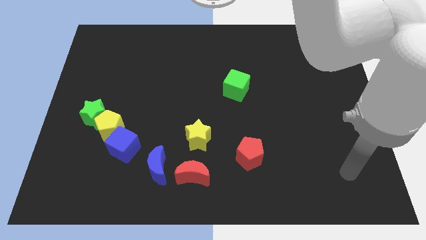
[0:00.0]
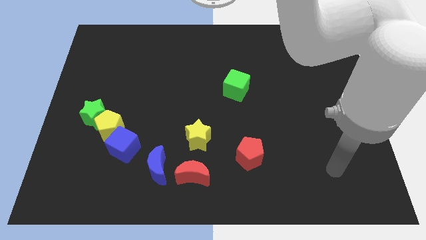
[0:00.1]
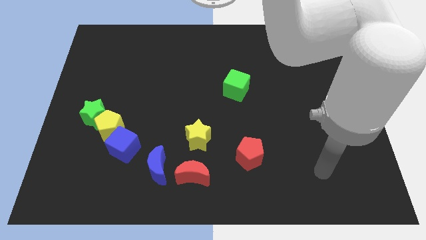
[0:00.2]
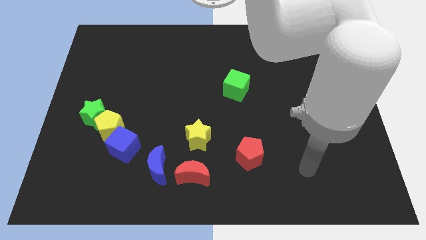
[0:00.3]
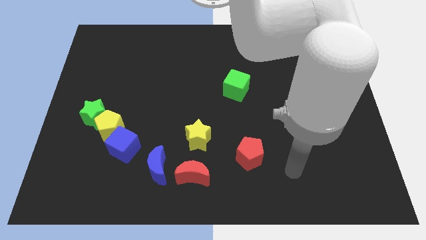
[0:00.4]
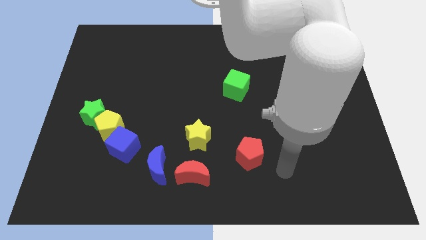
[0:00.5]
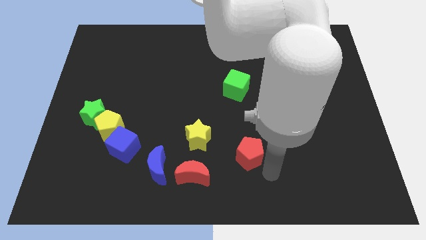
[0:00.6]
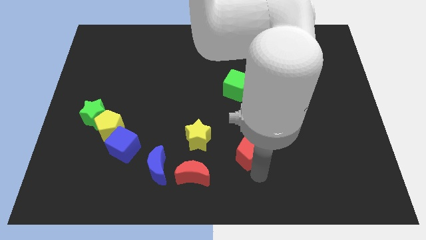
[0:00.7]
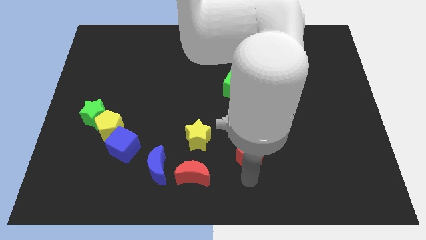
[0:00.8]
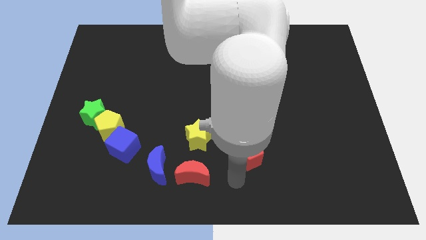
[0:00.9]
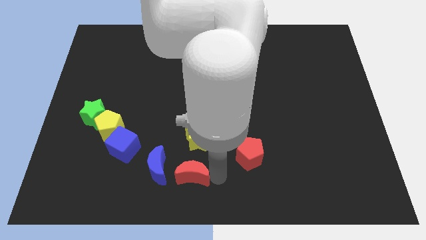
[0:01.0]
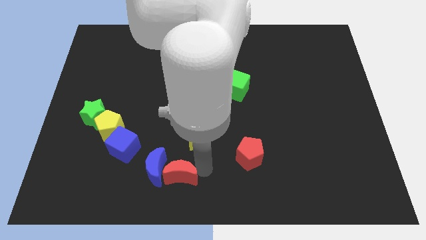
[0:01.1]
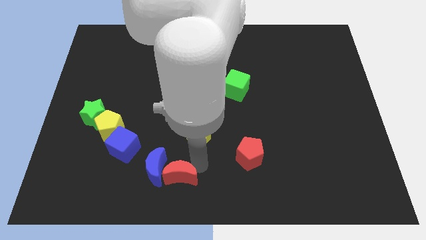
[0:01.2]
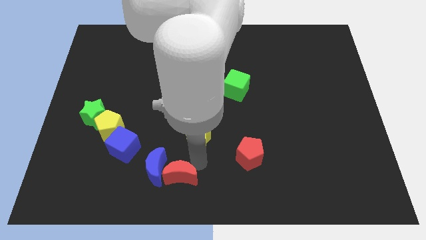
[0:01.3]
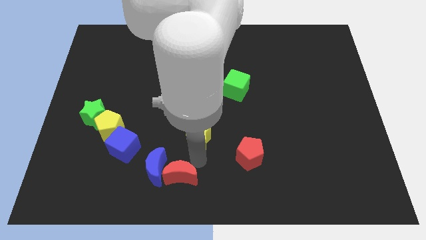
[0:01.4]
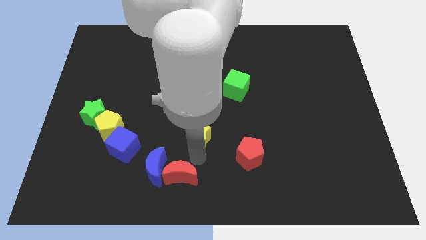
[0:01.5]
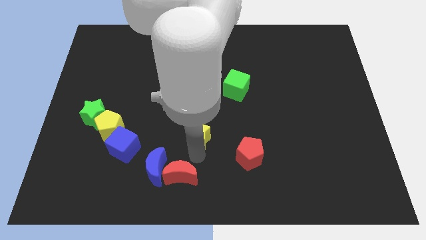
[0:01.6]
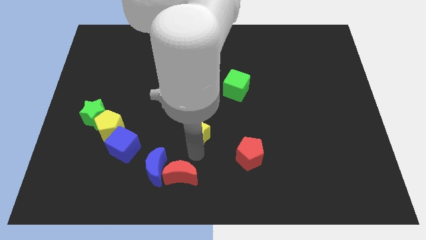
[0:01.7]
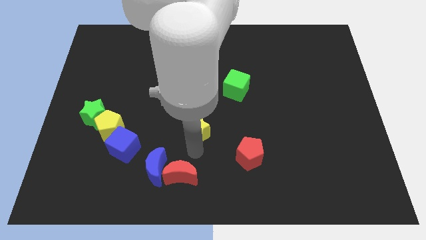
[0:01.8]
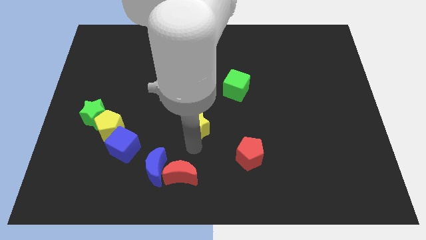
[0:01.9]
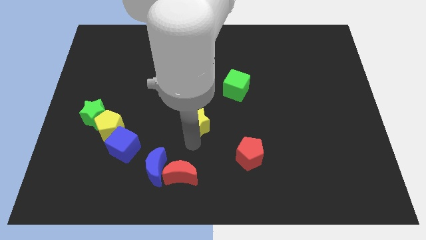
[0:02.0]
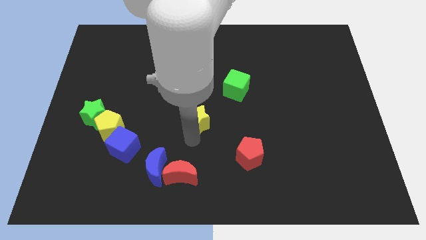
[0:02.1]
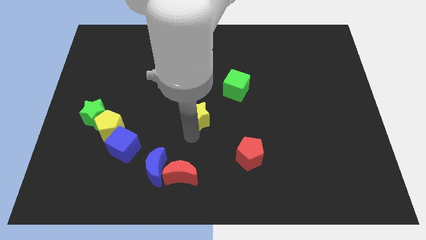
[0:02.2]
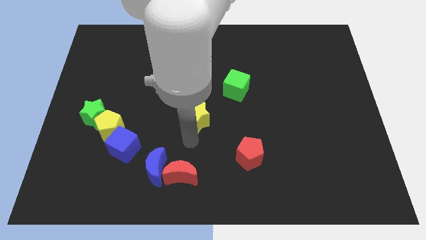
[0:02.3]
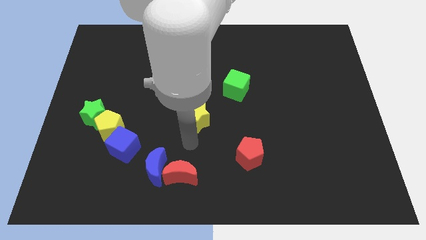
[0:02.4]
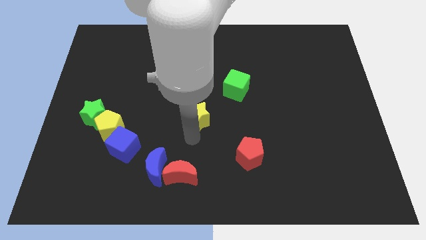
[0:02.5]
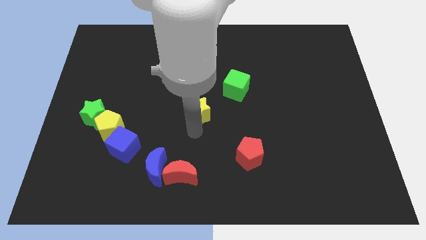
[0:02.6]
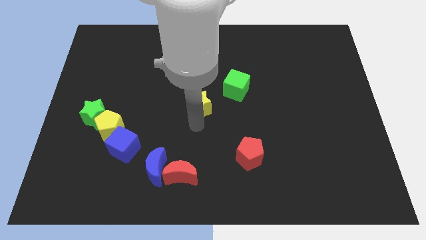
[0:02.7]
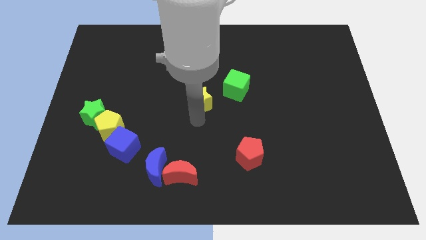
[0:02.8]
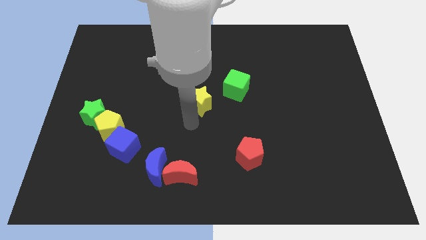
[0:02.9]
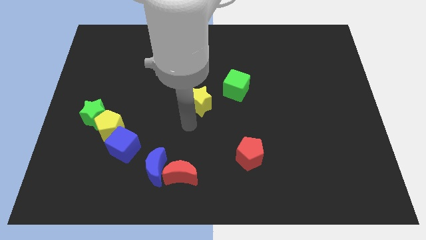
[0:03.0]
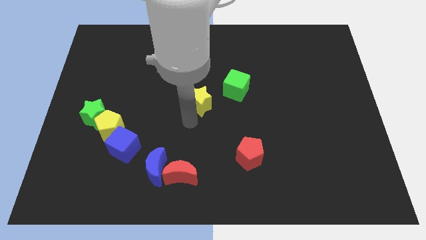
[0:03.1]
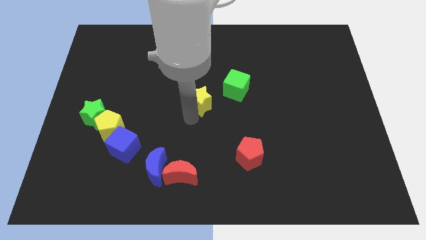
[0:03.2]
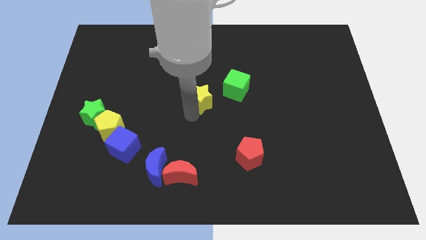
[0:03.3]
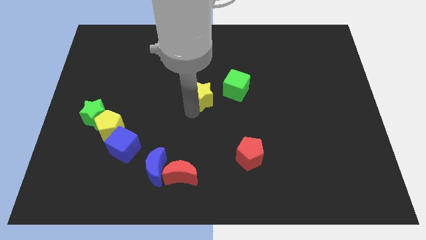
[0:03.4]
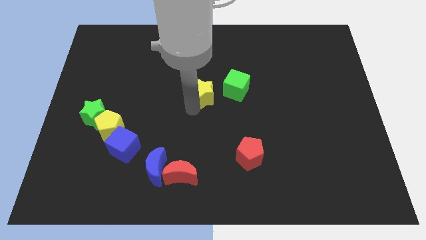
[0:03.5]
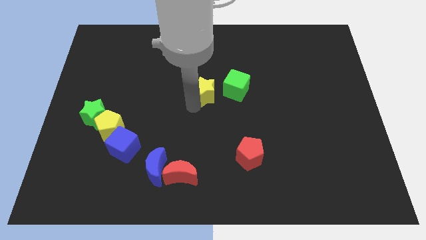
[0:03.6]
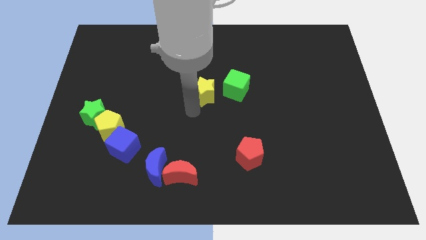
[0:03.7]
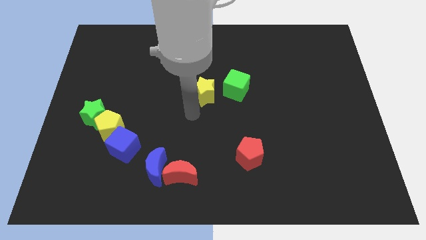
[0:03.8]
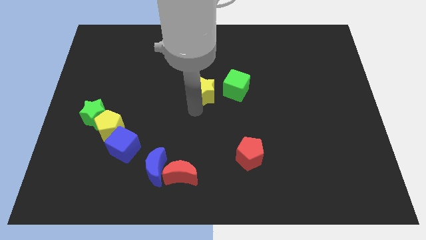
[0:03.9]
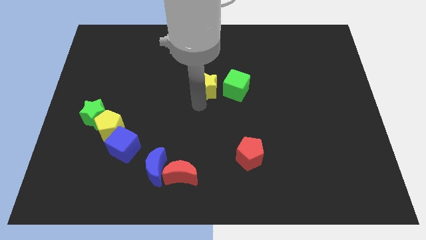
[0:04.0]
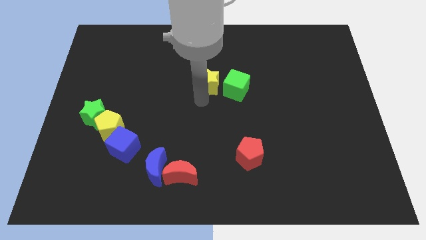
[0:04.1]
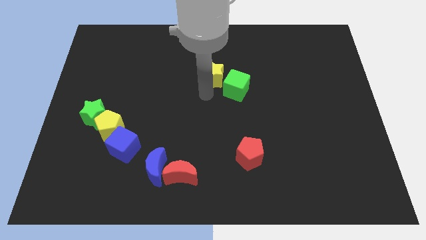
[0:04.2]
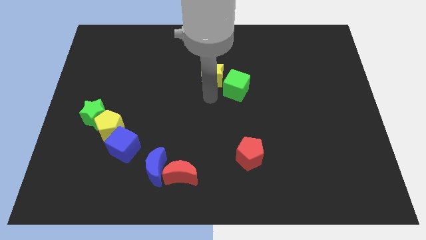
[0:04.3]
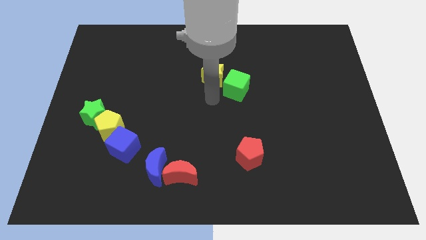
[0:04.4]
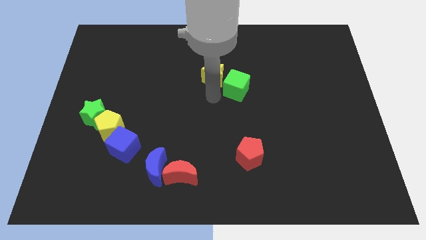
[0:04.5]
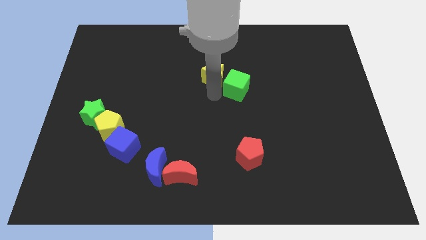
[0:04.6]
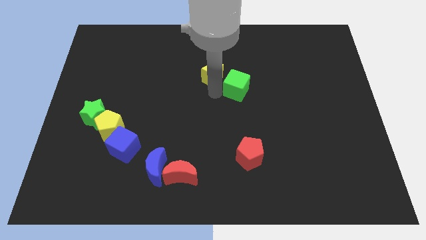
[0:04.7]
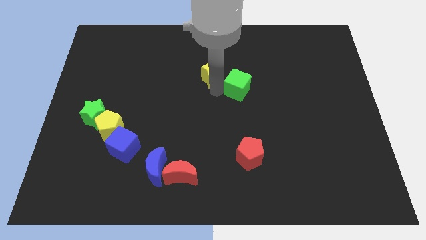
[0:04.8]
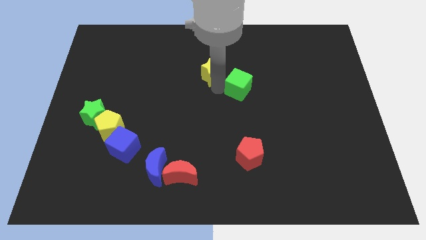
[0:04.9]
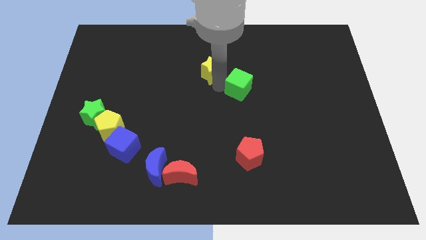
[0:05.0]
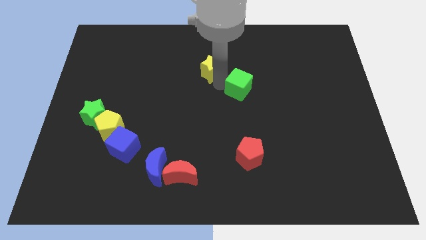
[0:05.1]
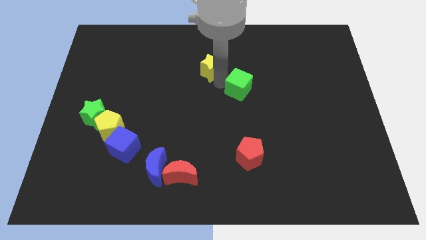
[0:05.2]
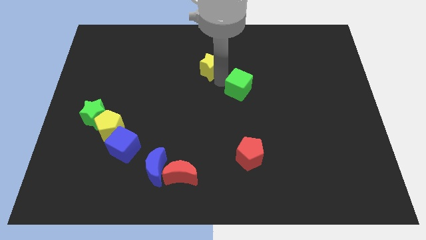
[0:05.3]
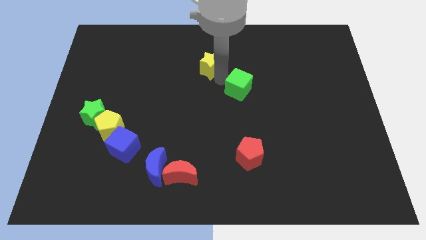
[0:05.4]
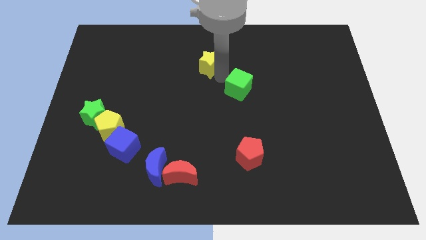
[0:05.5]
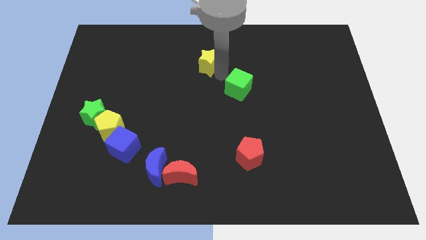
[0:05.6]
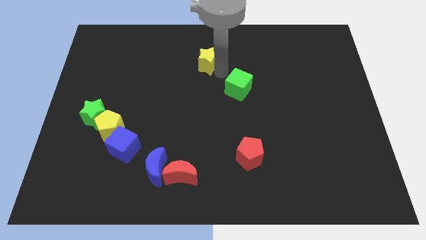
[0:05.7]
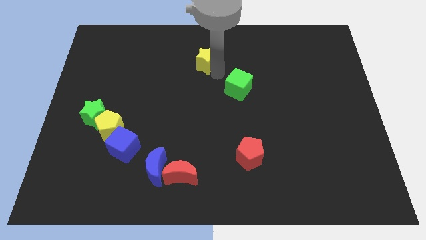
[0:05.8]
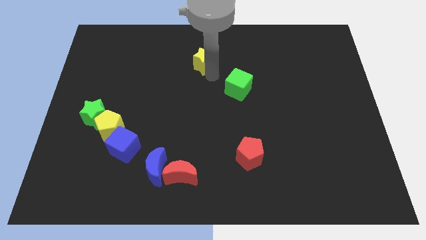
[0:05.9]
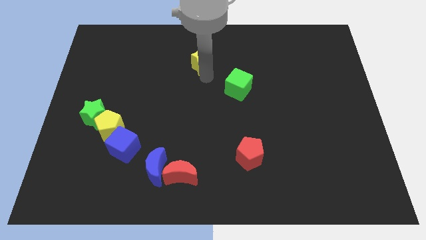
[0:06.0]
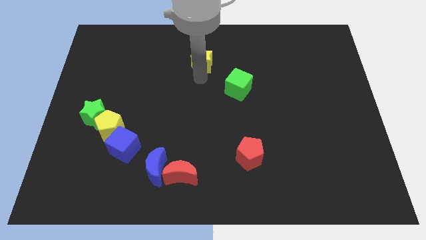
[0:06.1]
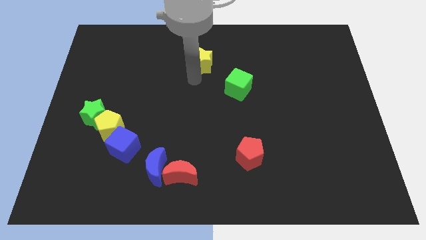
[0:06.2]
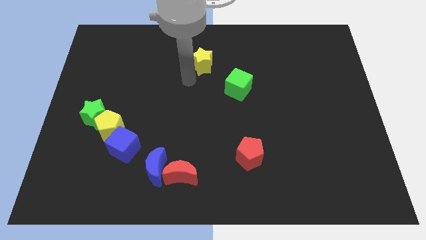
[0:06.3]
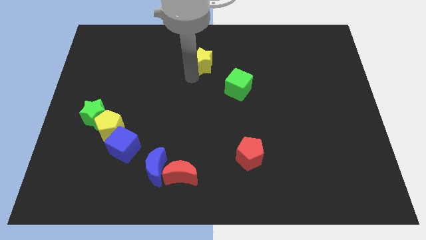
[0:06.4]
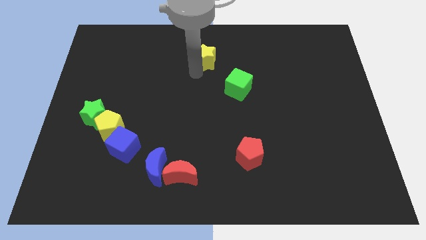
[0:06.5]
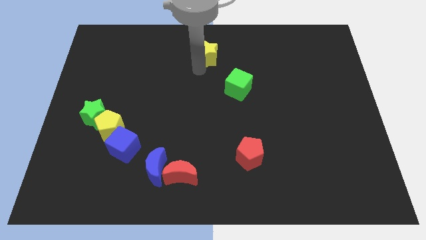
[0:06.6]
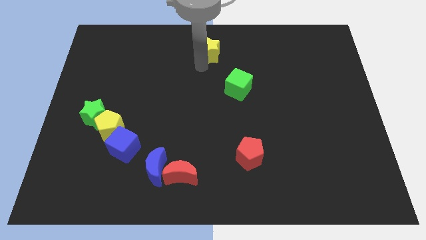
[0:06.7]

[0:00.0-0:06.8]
move the yellow star to the top
